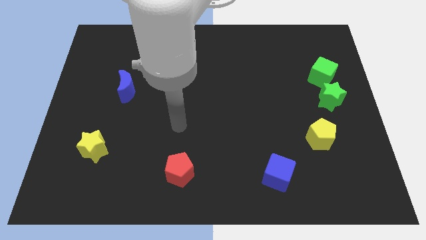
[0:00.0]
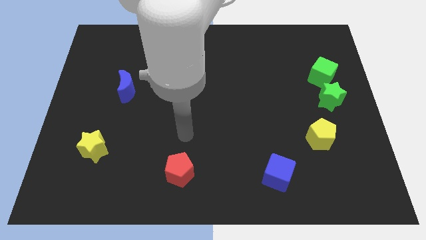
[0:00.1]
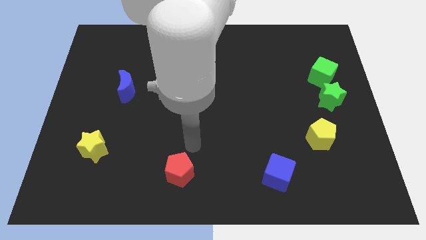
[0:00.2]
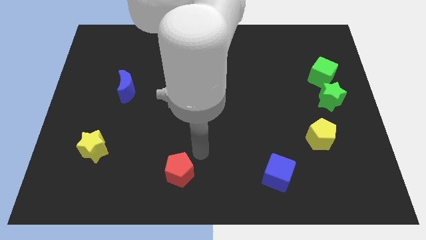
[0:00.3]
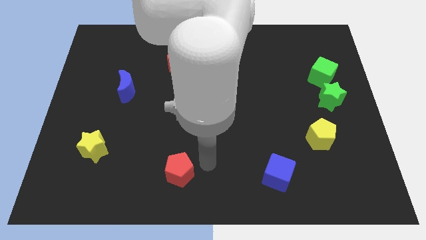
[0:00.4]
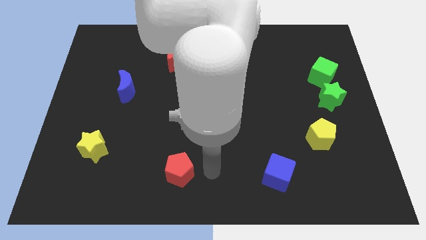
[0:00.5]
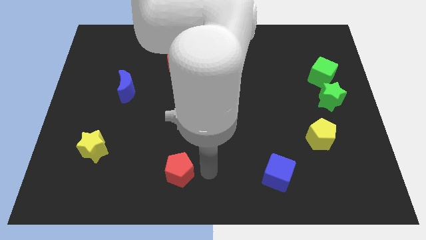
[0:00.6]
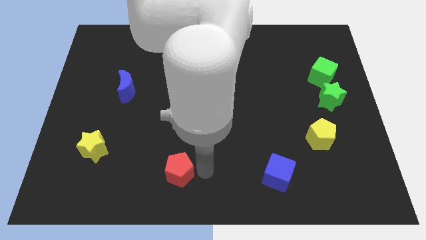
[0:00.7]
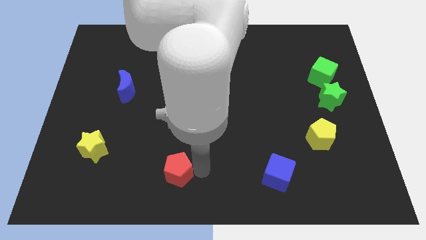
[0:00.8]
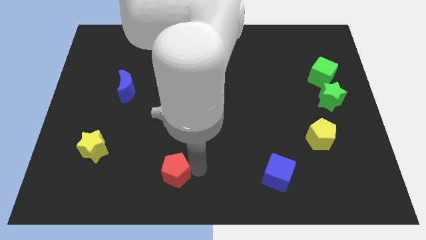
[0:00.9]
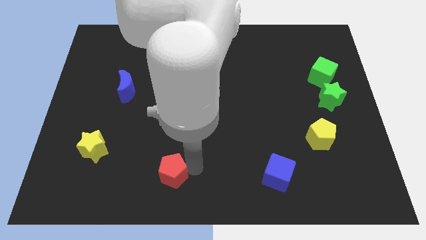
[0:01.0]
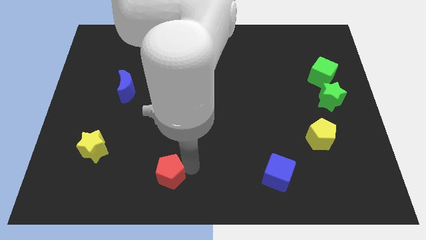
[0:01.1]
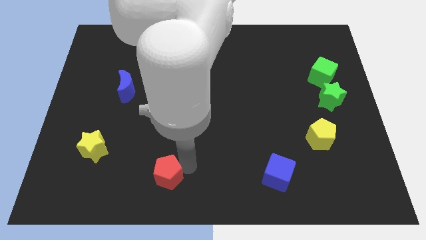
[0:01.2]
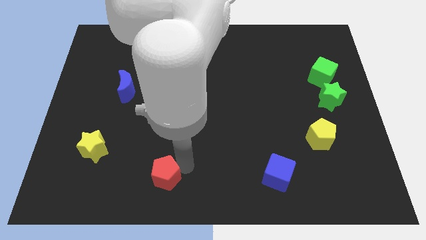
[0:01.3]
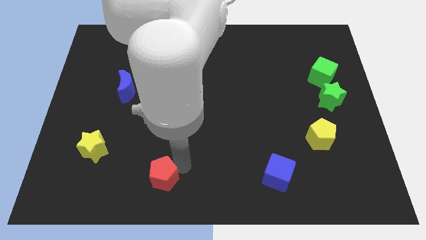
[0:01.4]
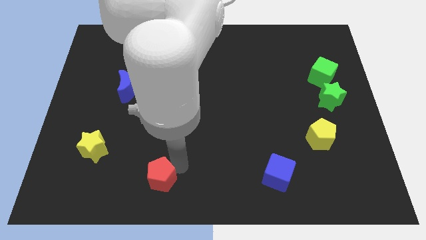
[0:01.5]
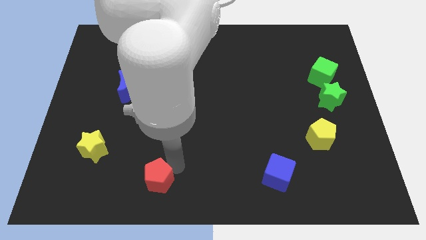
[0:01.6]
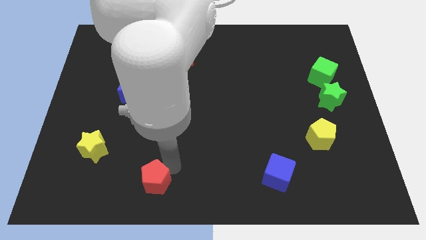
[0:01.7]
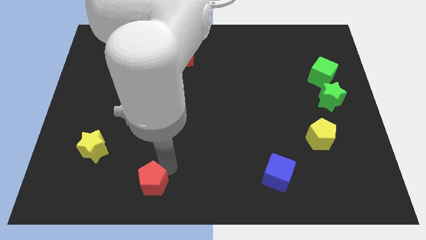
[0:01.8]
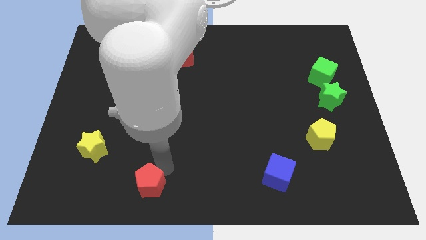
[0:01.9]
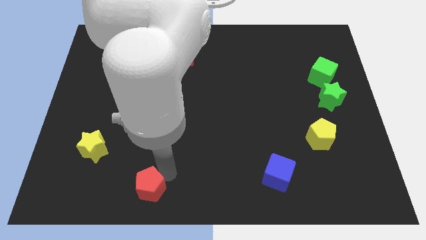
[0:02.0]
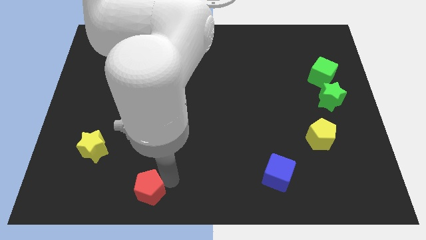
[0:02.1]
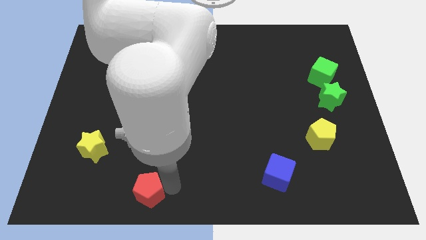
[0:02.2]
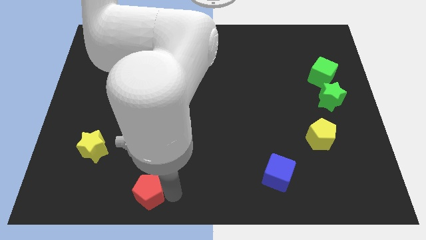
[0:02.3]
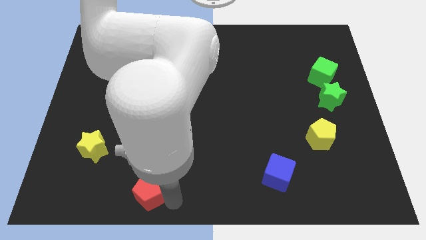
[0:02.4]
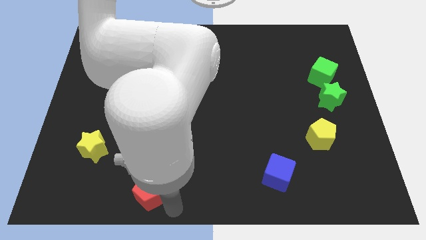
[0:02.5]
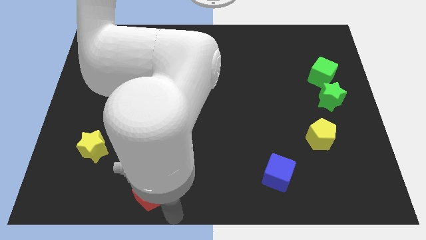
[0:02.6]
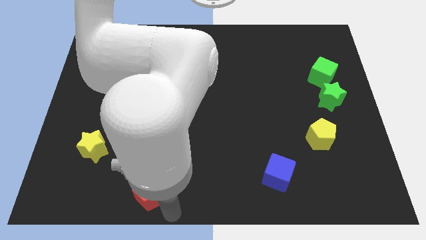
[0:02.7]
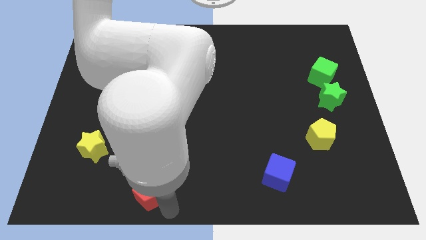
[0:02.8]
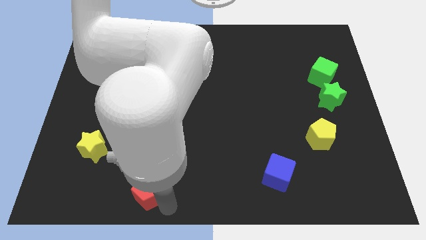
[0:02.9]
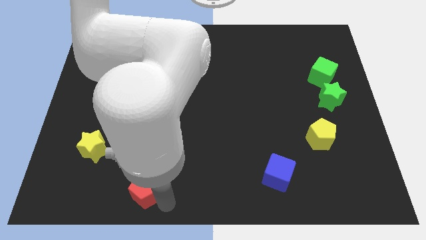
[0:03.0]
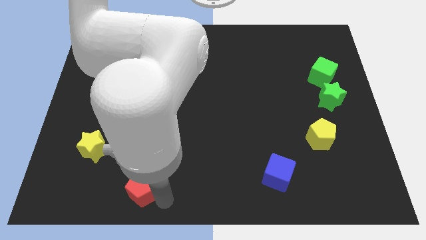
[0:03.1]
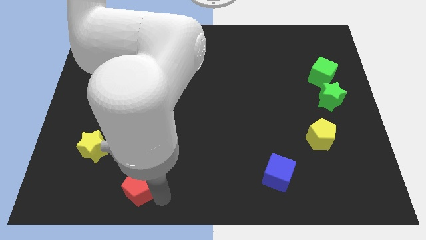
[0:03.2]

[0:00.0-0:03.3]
slightly move the red pentagon left

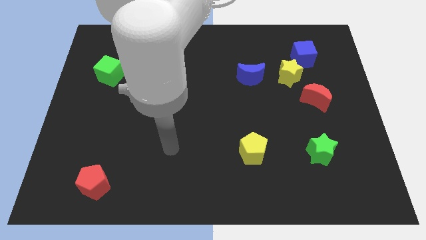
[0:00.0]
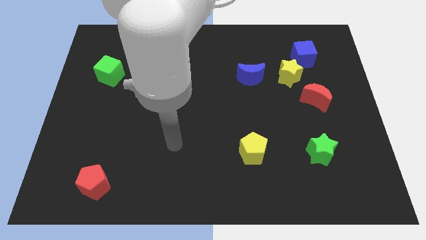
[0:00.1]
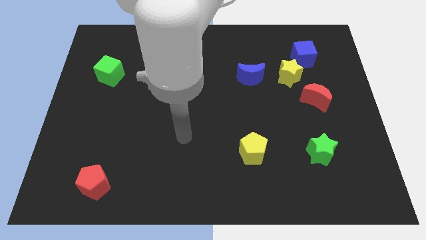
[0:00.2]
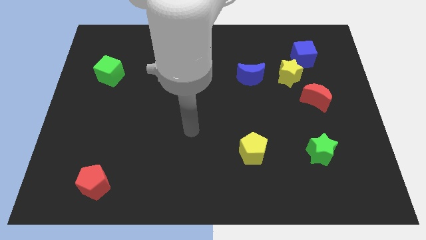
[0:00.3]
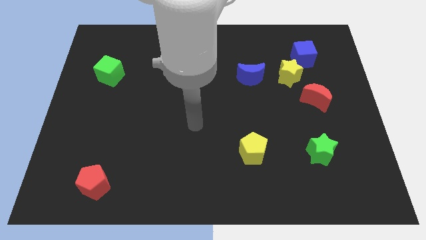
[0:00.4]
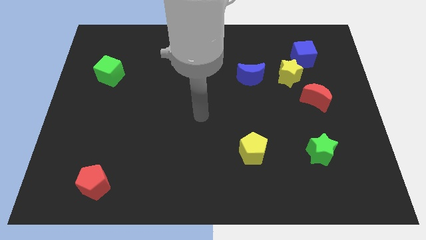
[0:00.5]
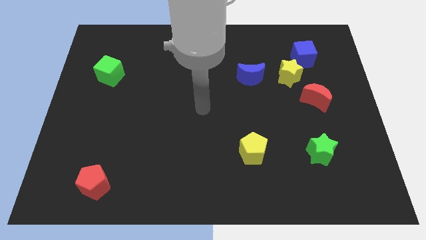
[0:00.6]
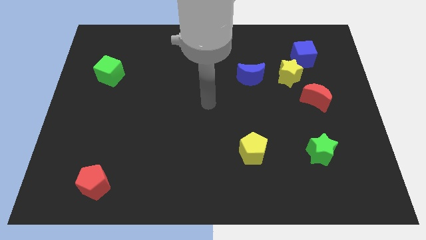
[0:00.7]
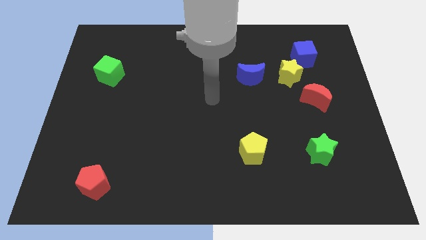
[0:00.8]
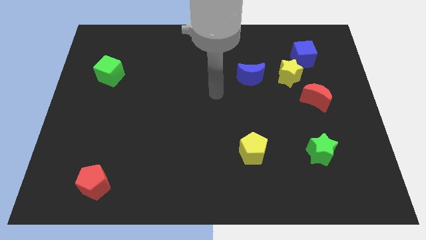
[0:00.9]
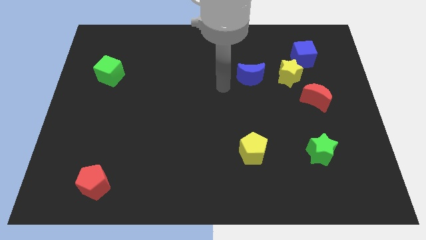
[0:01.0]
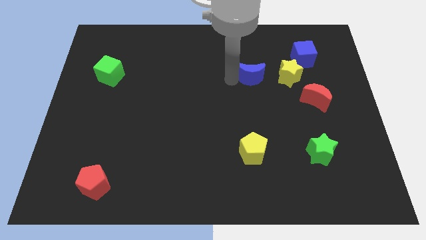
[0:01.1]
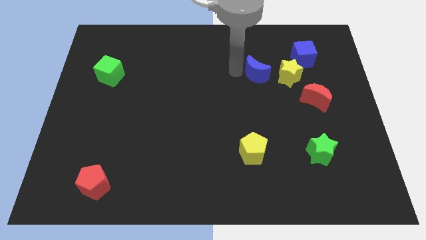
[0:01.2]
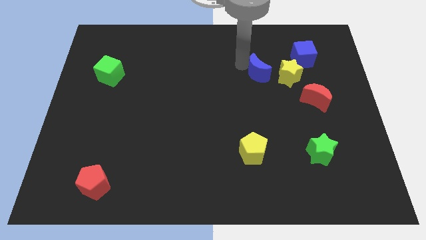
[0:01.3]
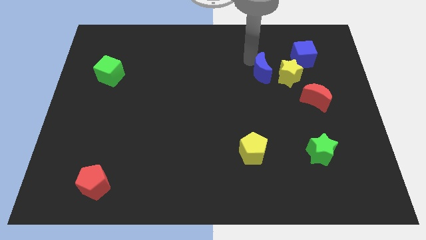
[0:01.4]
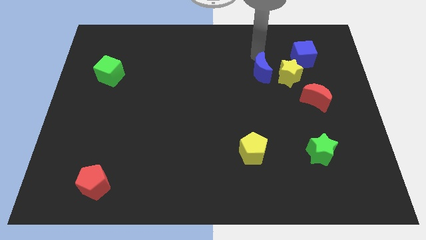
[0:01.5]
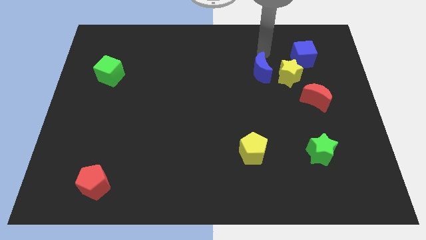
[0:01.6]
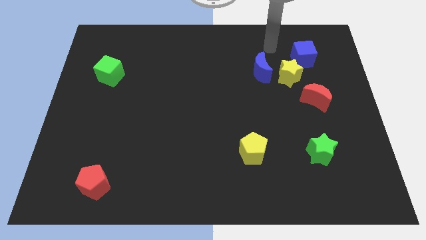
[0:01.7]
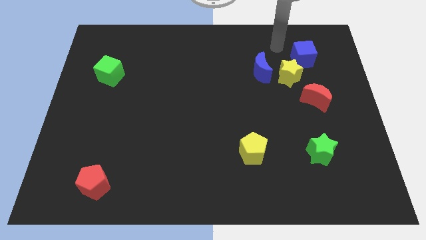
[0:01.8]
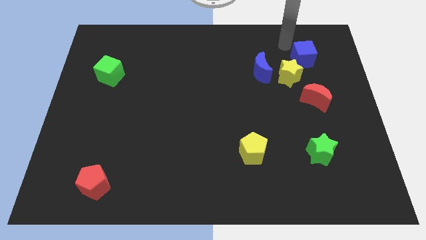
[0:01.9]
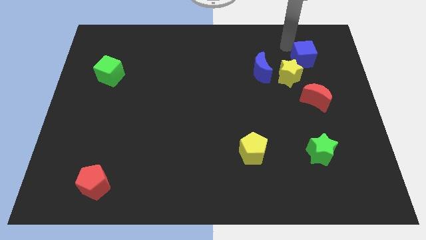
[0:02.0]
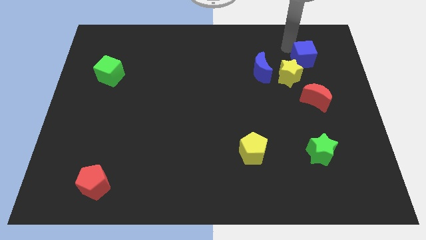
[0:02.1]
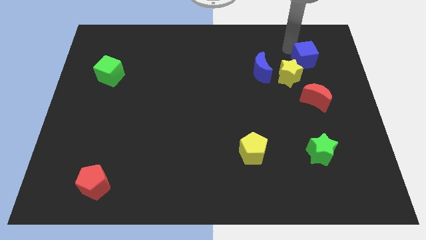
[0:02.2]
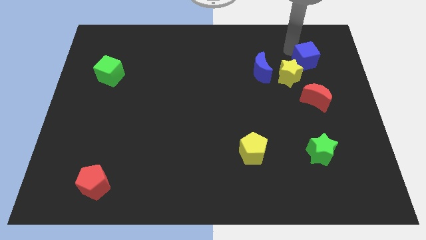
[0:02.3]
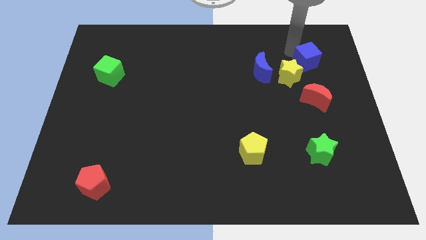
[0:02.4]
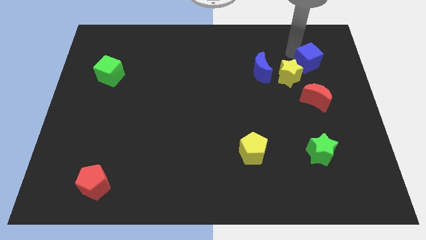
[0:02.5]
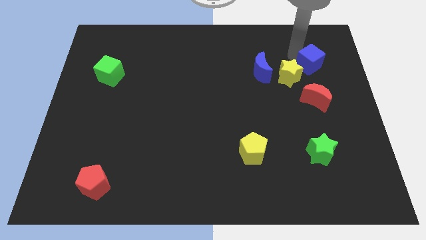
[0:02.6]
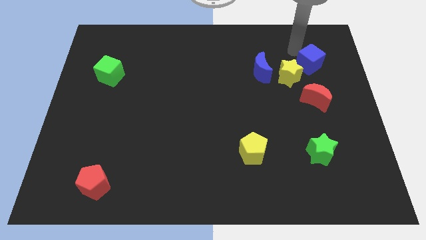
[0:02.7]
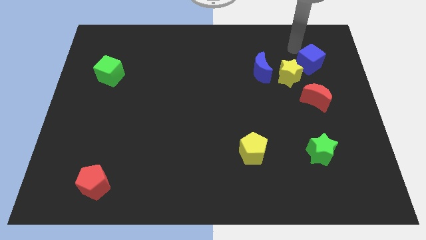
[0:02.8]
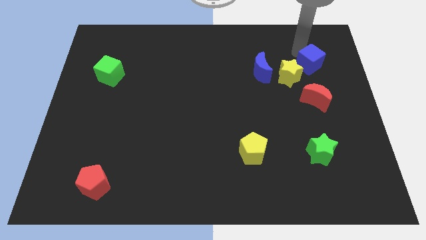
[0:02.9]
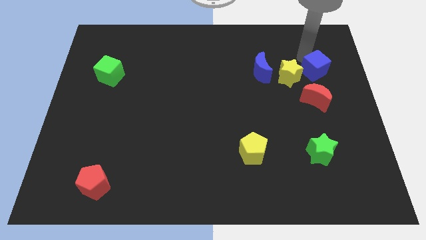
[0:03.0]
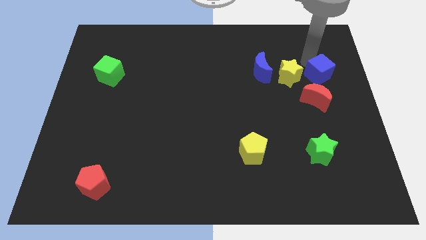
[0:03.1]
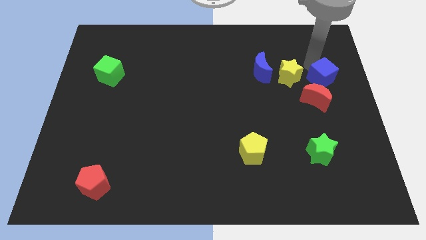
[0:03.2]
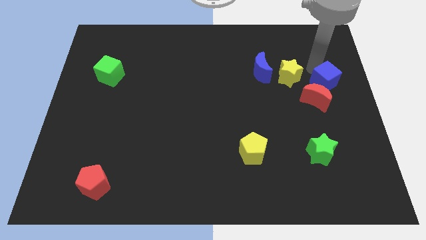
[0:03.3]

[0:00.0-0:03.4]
move the blue cube slightly down

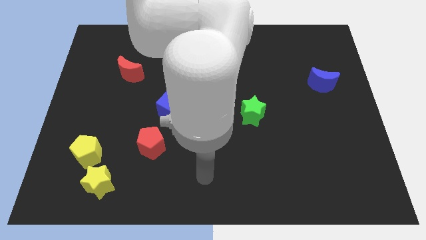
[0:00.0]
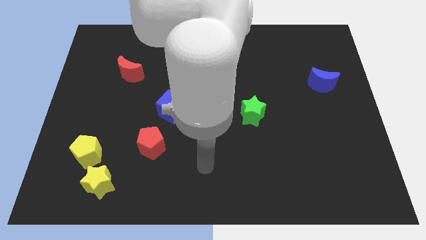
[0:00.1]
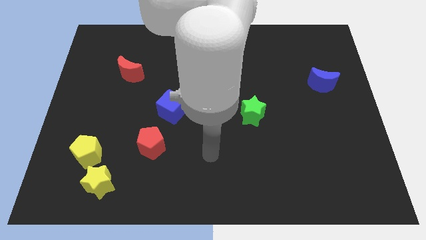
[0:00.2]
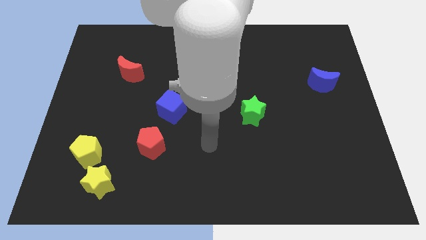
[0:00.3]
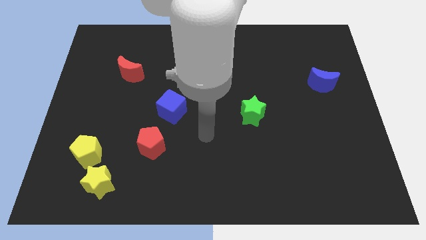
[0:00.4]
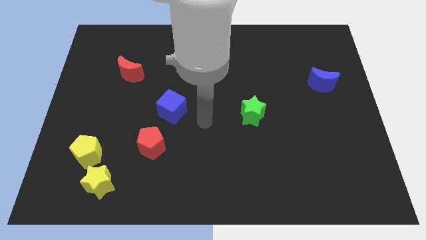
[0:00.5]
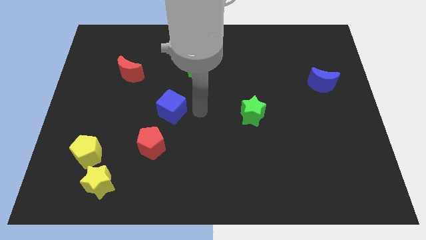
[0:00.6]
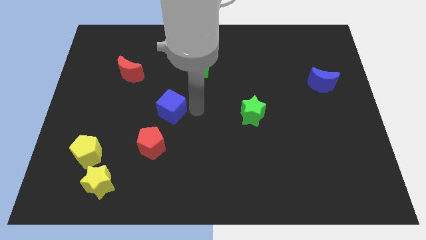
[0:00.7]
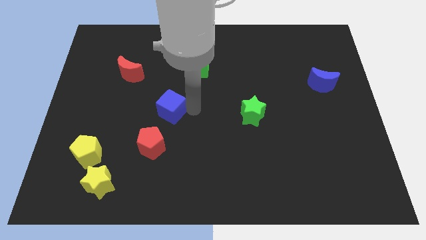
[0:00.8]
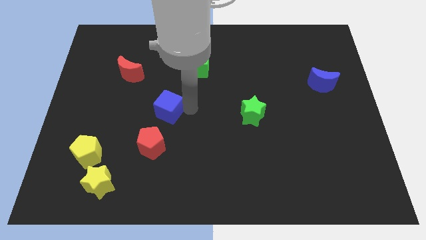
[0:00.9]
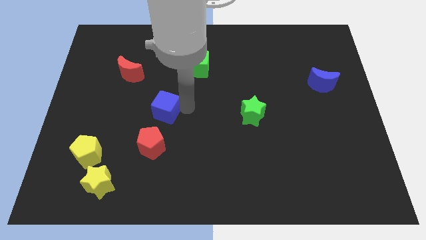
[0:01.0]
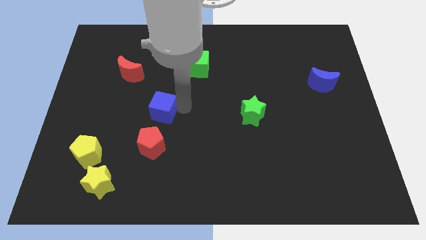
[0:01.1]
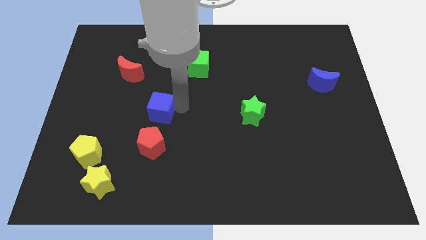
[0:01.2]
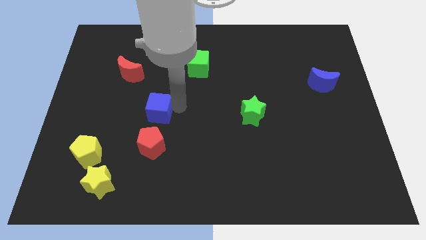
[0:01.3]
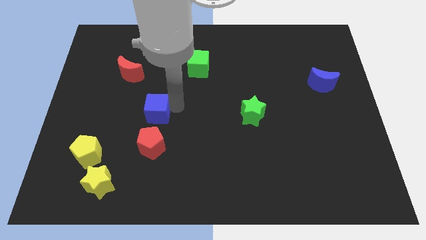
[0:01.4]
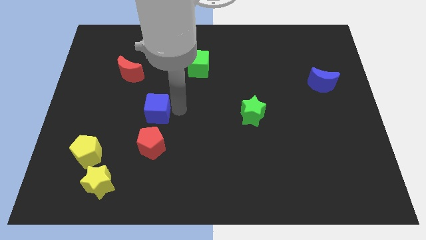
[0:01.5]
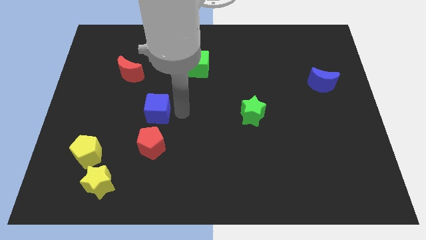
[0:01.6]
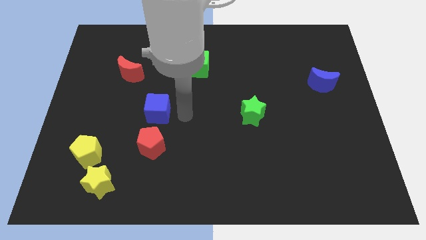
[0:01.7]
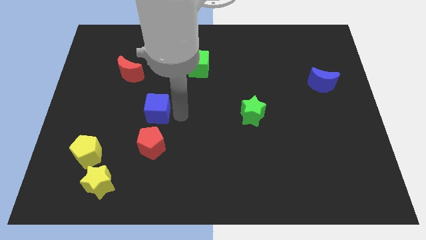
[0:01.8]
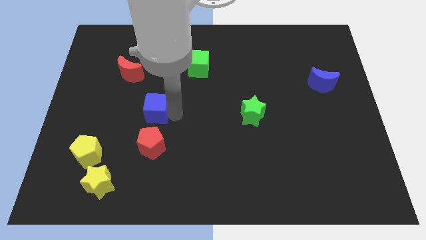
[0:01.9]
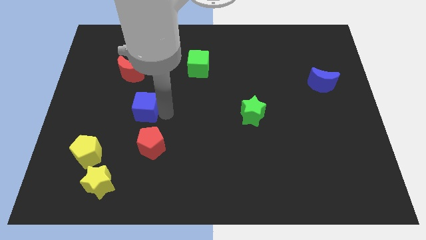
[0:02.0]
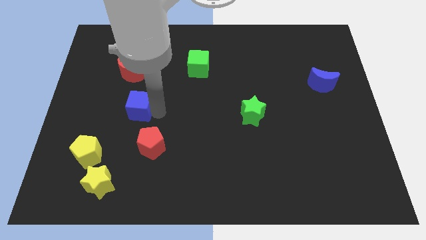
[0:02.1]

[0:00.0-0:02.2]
slide the blue cube to the left slightly
